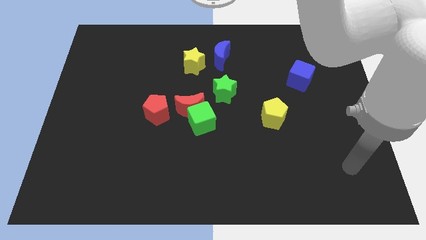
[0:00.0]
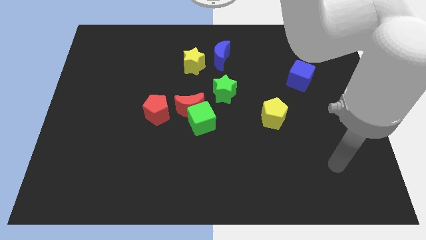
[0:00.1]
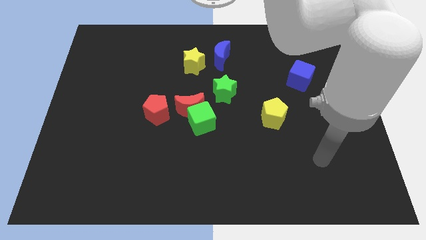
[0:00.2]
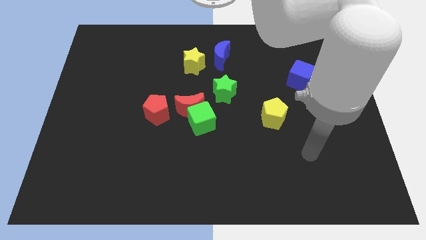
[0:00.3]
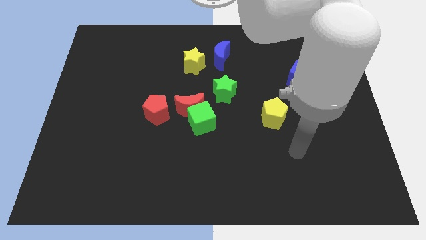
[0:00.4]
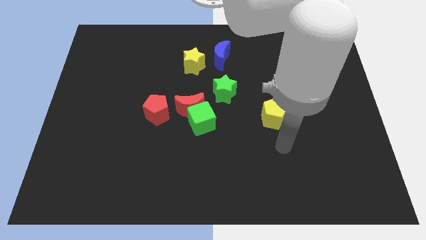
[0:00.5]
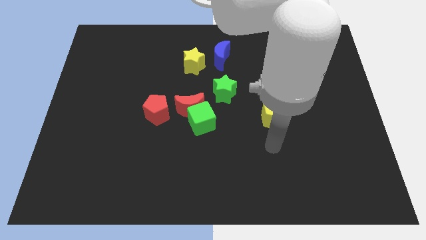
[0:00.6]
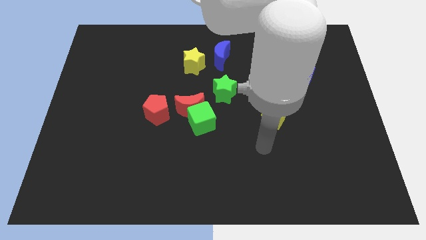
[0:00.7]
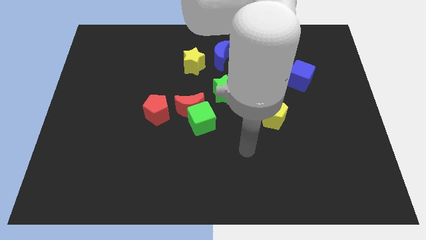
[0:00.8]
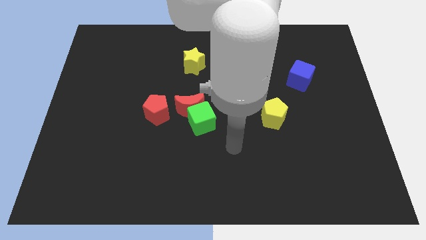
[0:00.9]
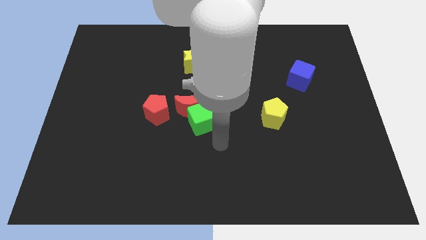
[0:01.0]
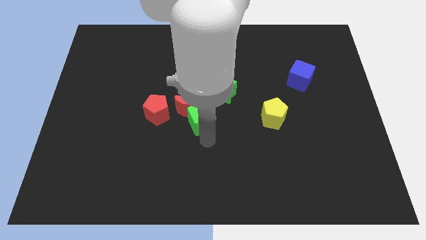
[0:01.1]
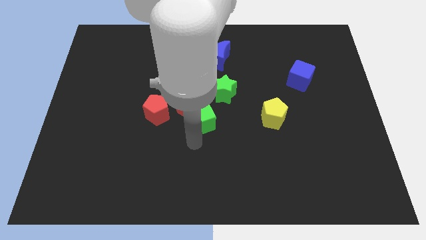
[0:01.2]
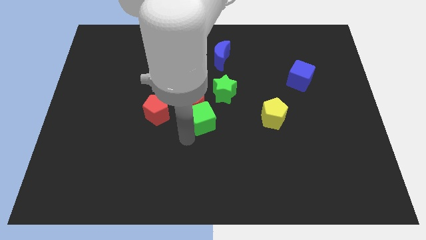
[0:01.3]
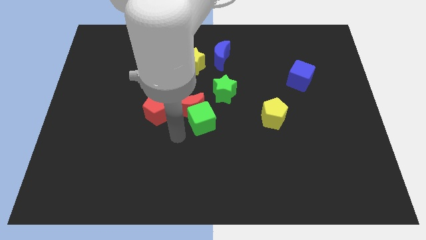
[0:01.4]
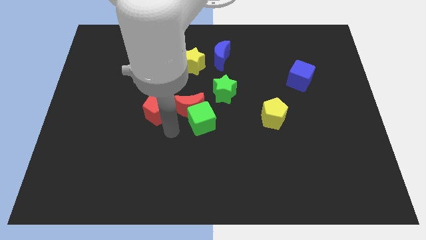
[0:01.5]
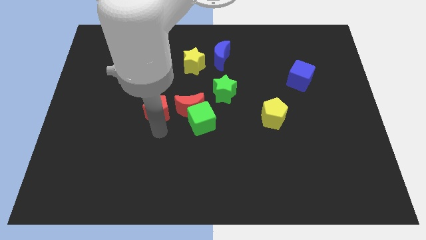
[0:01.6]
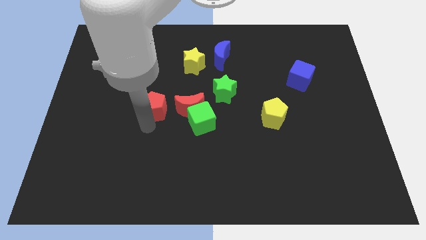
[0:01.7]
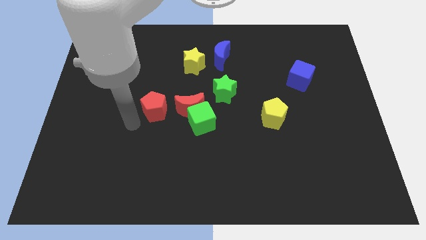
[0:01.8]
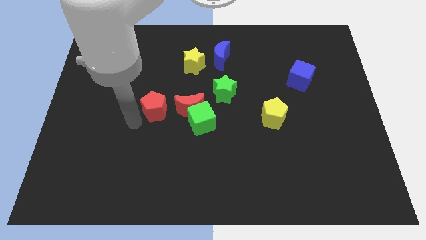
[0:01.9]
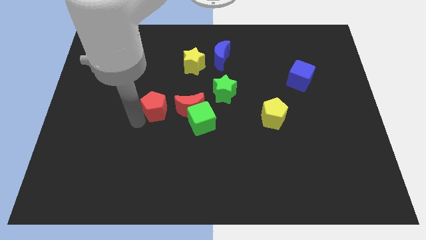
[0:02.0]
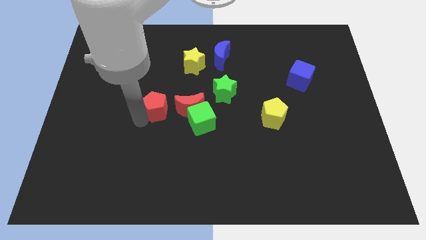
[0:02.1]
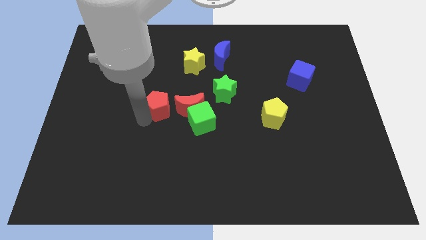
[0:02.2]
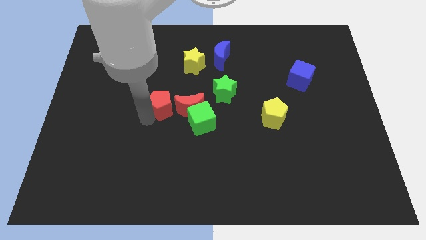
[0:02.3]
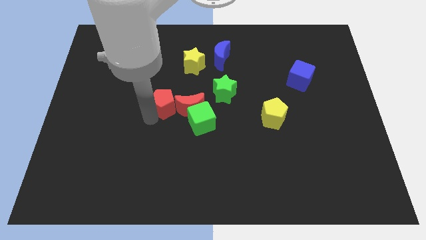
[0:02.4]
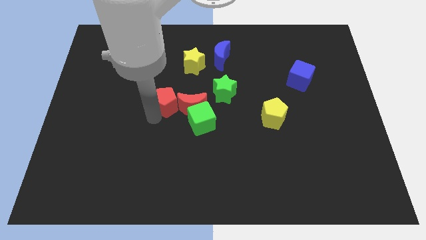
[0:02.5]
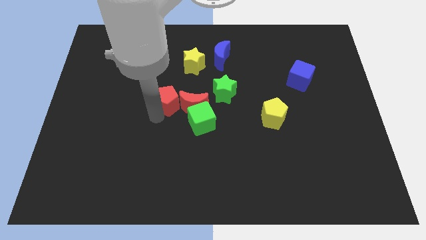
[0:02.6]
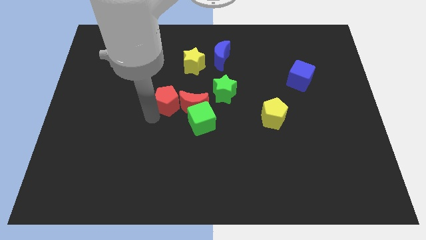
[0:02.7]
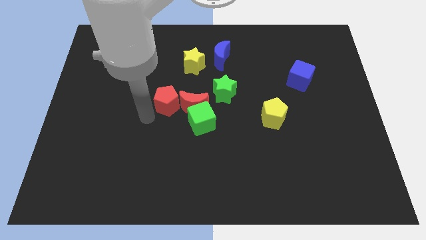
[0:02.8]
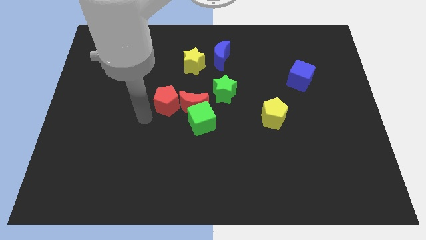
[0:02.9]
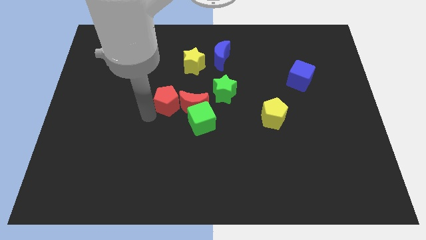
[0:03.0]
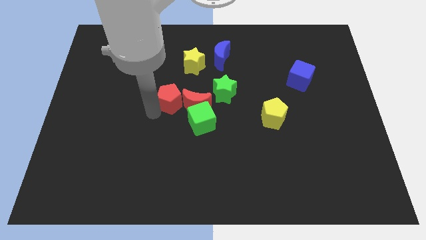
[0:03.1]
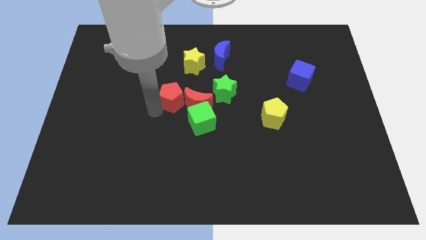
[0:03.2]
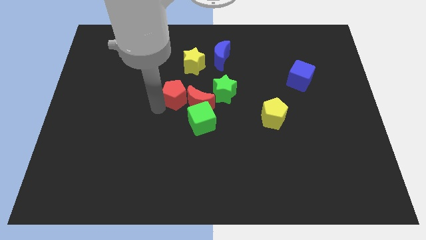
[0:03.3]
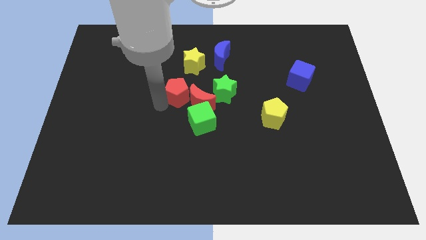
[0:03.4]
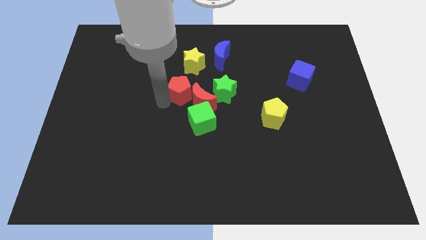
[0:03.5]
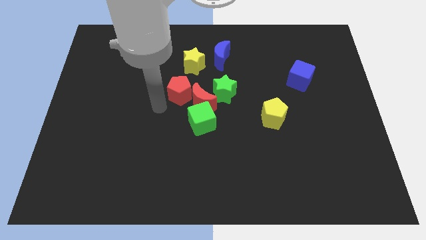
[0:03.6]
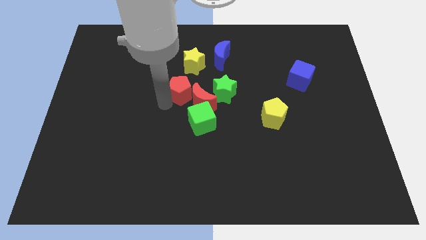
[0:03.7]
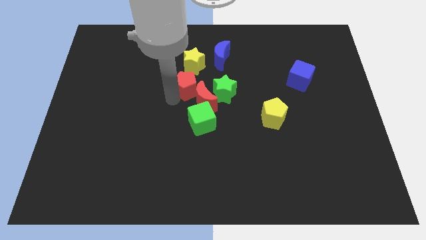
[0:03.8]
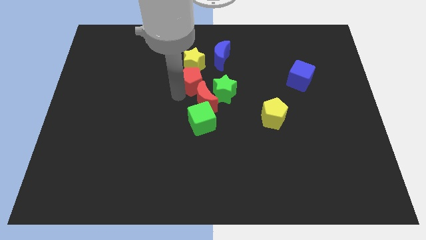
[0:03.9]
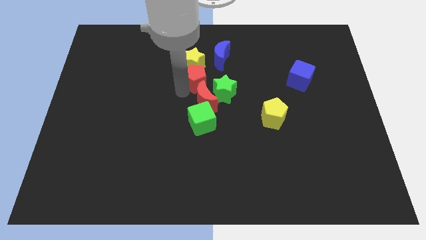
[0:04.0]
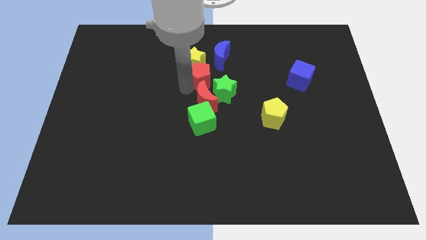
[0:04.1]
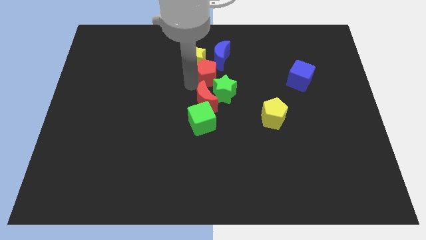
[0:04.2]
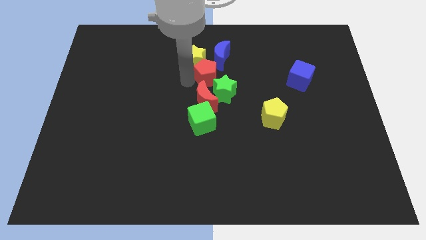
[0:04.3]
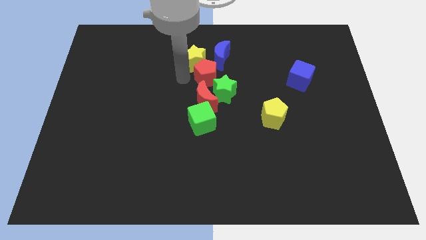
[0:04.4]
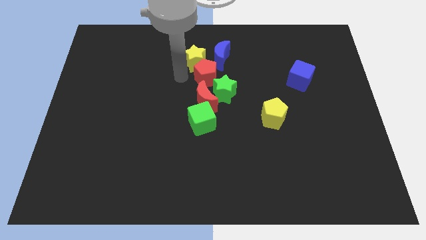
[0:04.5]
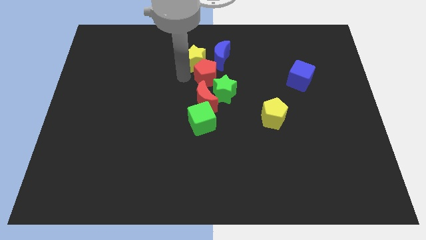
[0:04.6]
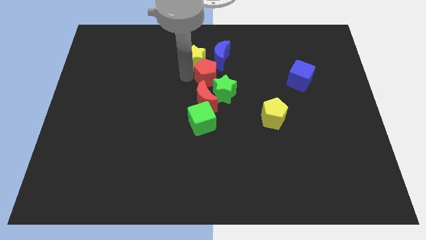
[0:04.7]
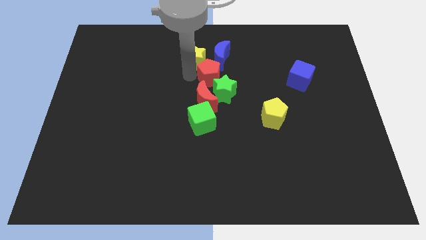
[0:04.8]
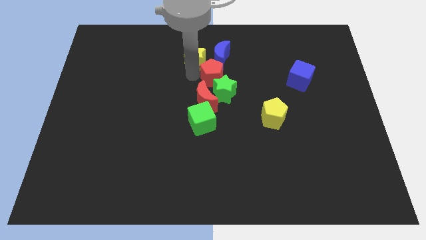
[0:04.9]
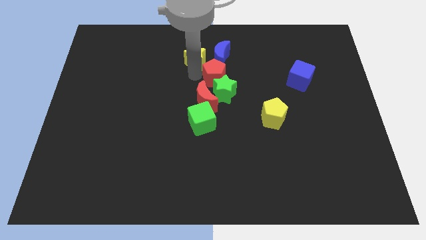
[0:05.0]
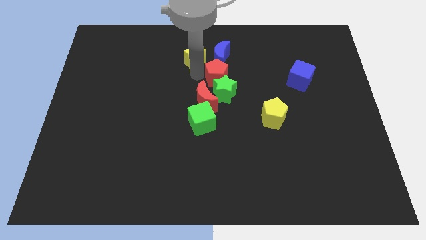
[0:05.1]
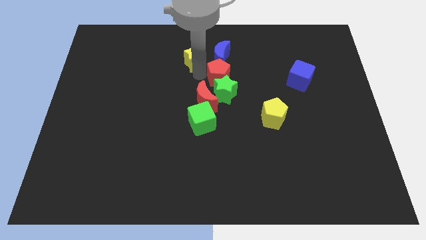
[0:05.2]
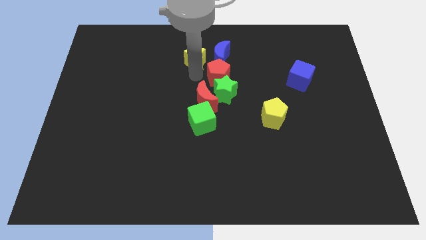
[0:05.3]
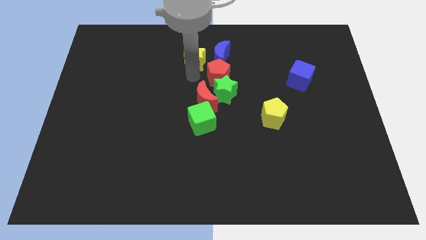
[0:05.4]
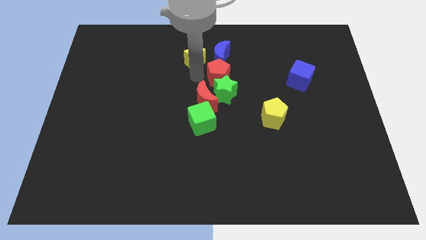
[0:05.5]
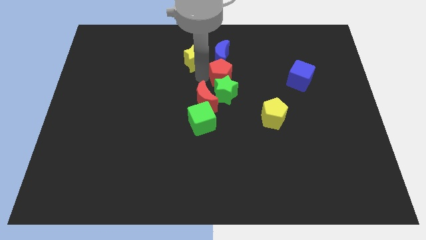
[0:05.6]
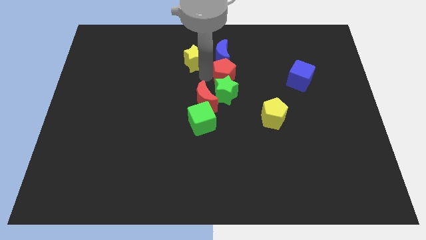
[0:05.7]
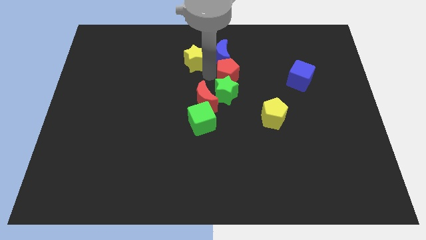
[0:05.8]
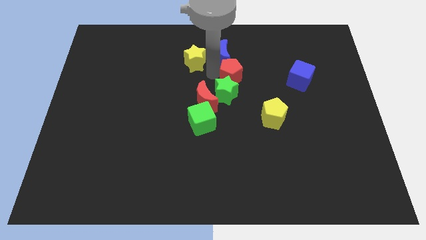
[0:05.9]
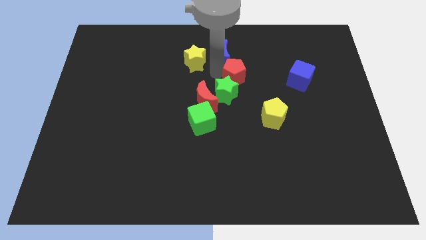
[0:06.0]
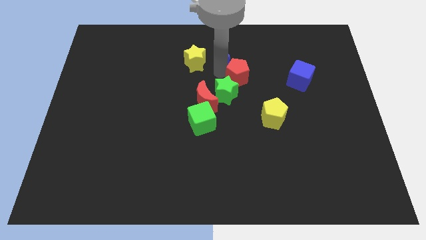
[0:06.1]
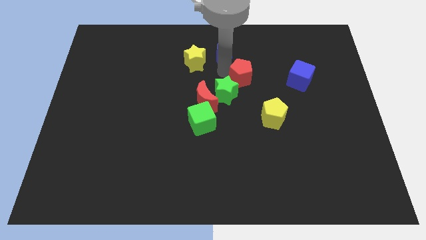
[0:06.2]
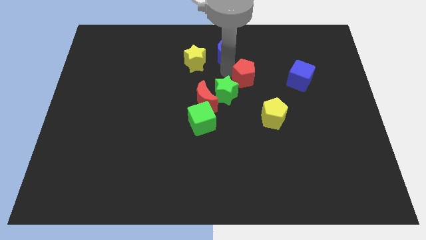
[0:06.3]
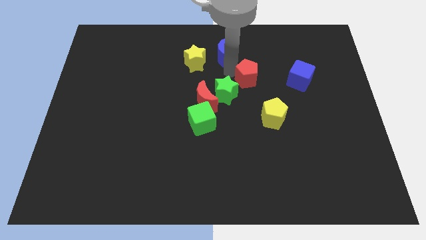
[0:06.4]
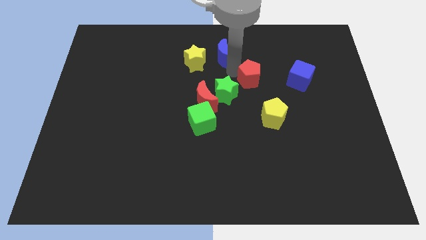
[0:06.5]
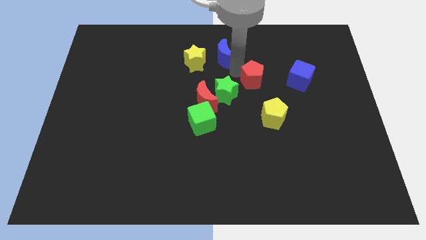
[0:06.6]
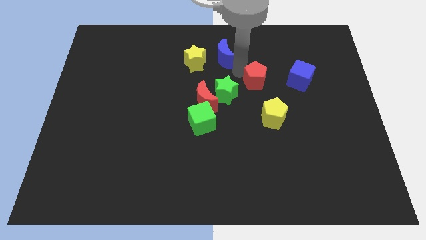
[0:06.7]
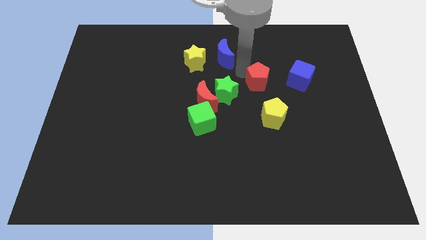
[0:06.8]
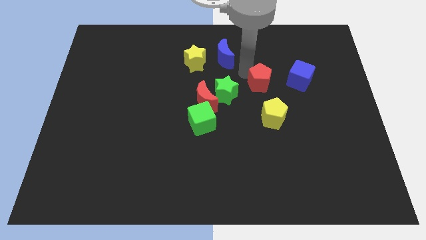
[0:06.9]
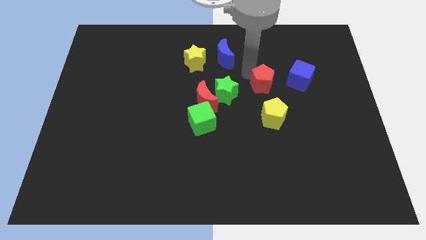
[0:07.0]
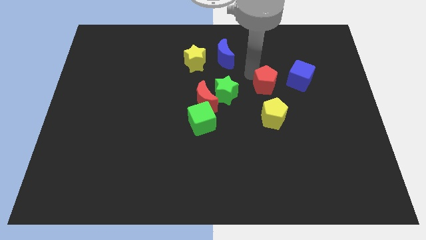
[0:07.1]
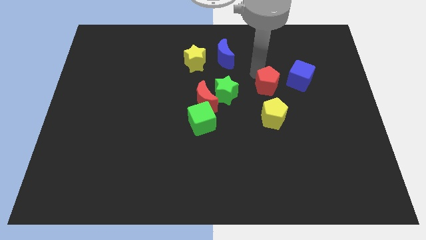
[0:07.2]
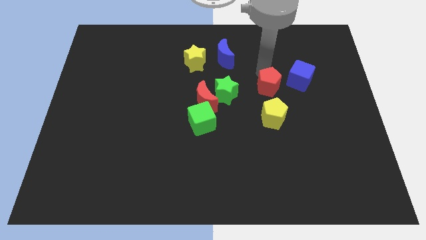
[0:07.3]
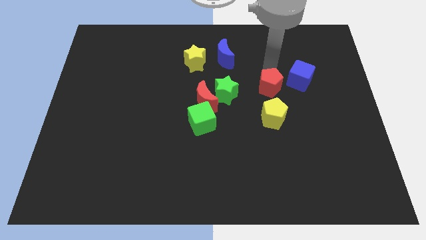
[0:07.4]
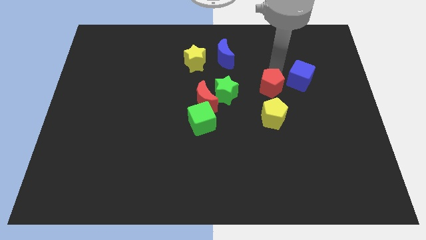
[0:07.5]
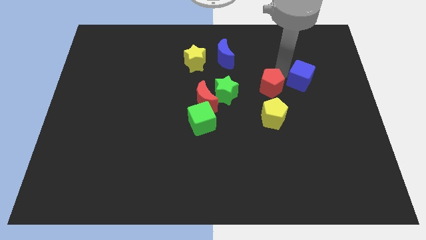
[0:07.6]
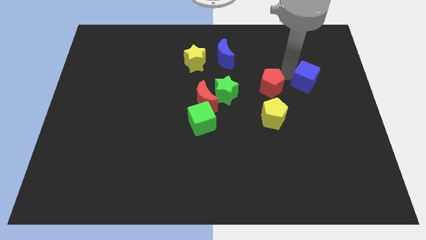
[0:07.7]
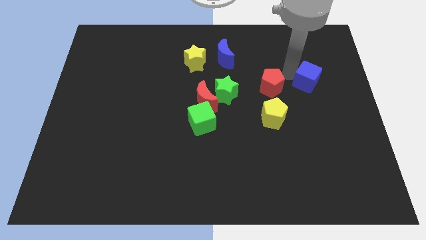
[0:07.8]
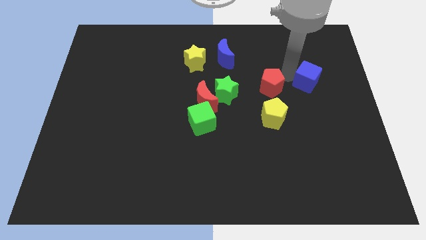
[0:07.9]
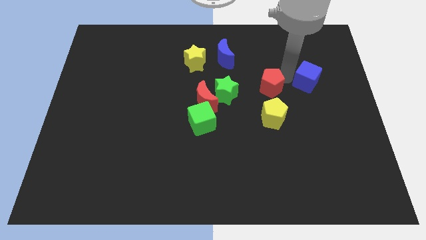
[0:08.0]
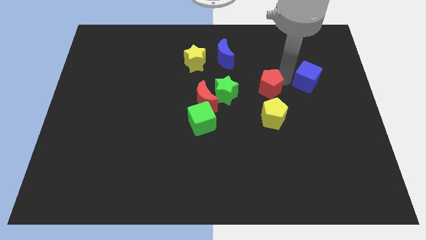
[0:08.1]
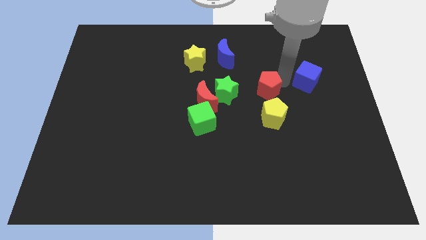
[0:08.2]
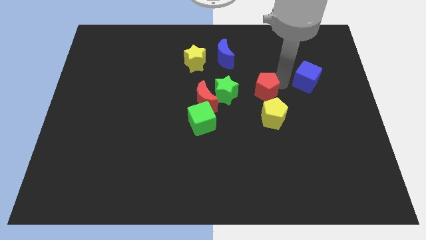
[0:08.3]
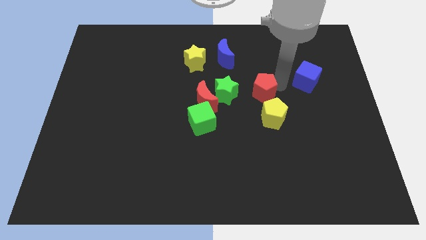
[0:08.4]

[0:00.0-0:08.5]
put the red pentagon to the top left side of the yellow pentagon
